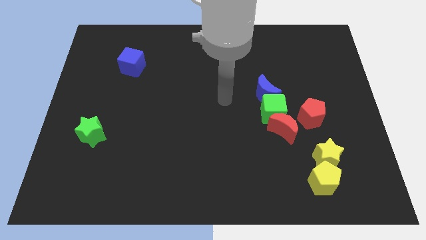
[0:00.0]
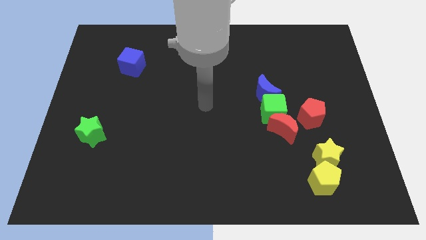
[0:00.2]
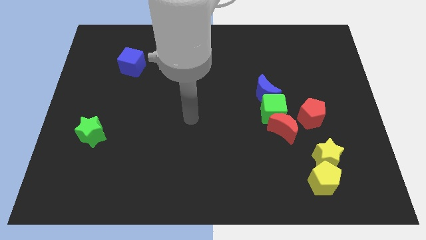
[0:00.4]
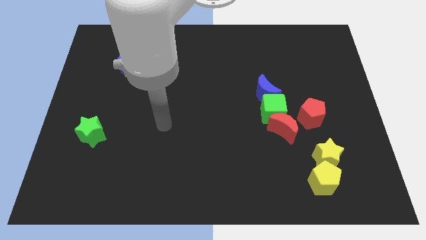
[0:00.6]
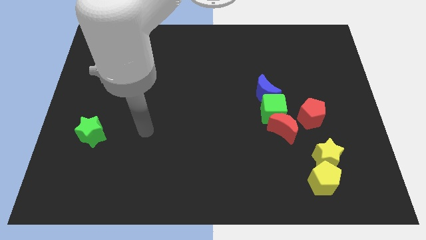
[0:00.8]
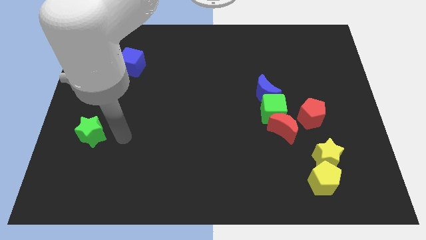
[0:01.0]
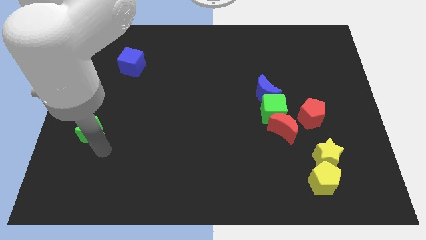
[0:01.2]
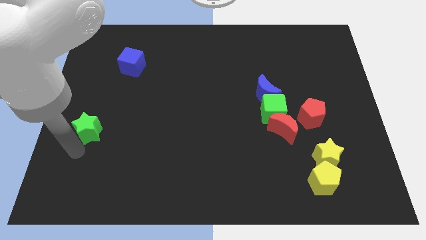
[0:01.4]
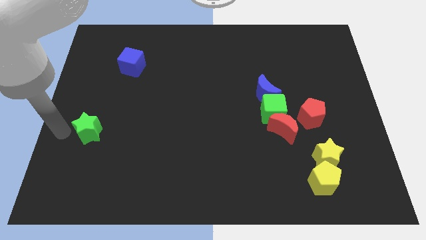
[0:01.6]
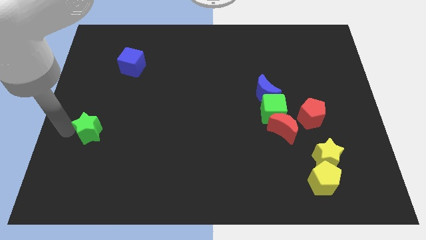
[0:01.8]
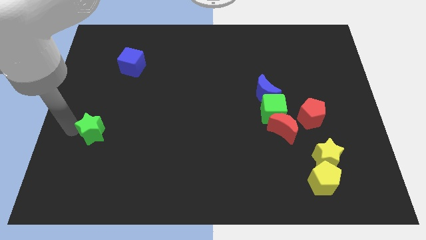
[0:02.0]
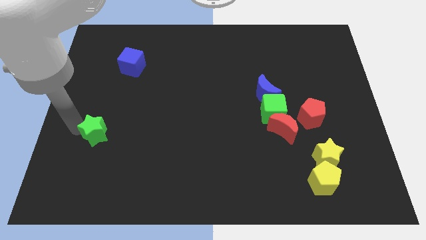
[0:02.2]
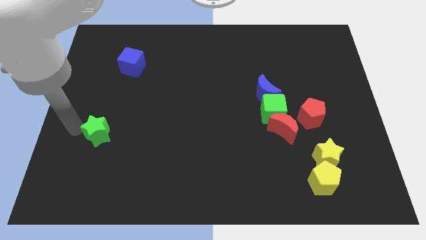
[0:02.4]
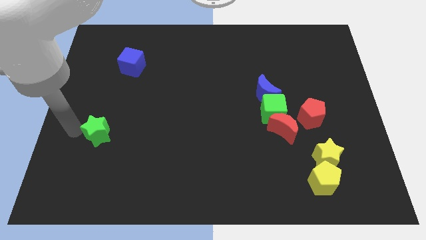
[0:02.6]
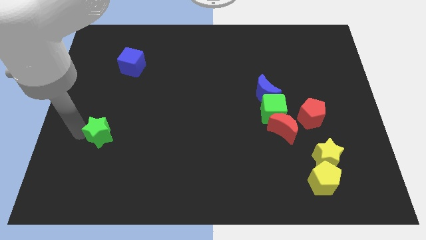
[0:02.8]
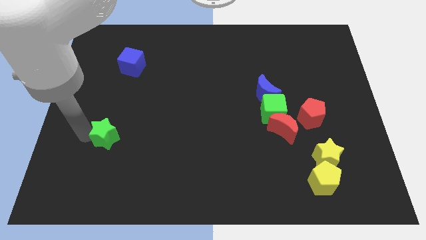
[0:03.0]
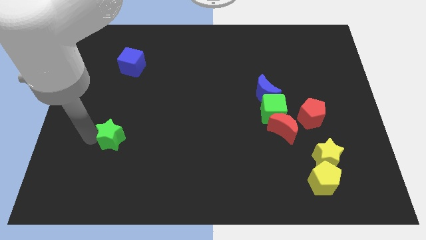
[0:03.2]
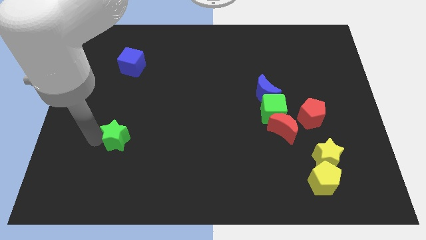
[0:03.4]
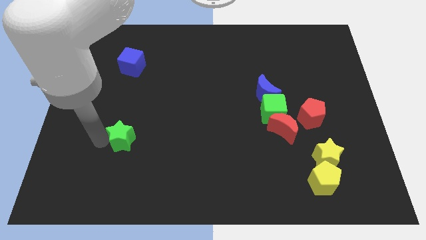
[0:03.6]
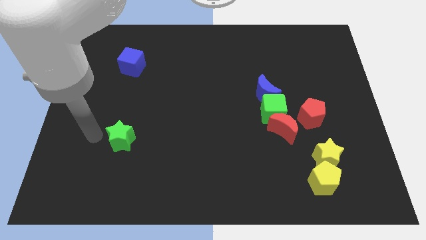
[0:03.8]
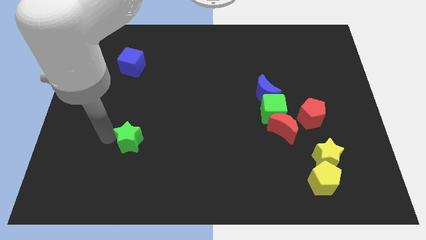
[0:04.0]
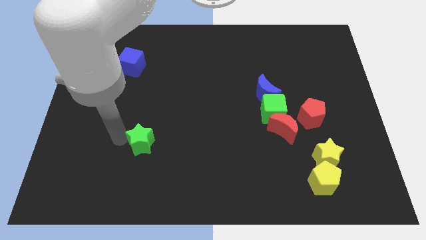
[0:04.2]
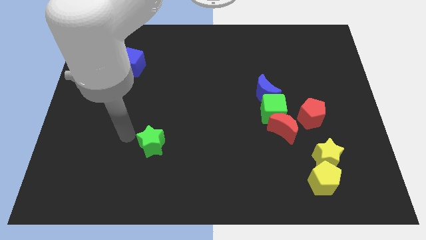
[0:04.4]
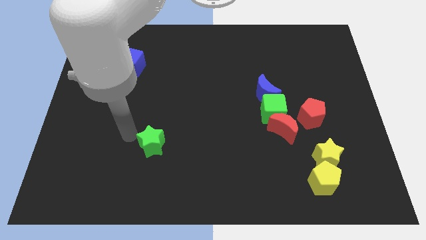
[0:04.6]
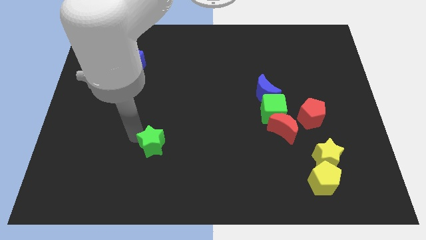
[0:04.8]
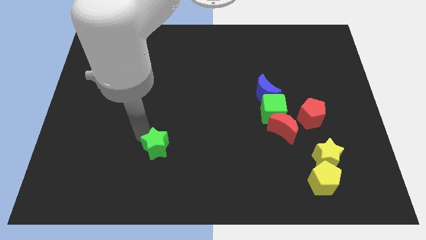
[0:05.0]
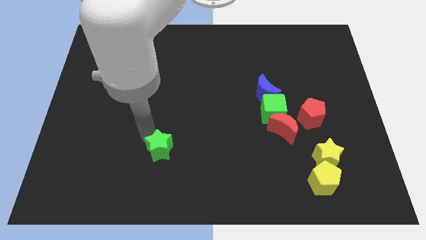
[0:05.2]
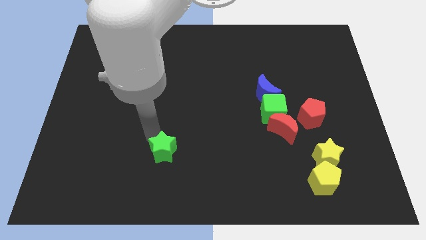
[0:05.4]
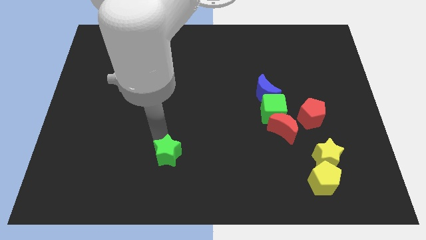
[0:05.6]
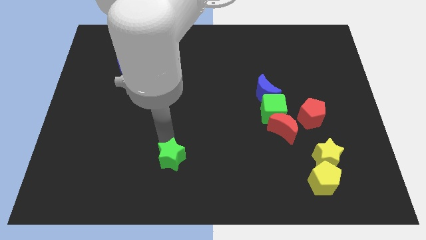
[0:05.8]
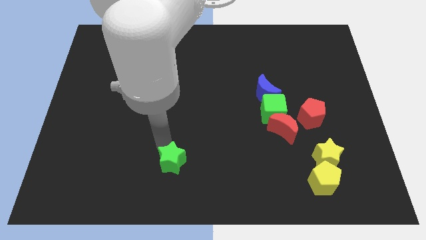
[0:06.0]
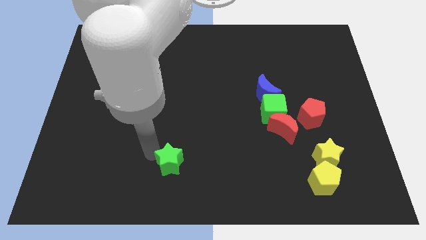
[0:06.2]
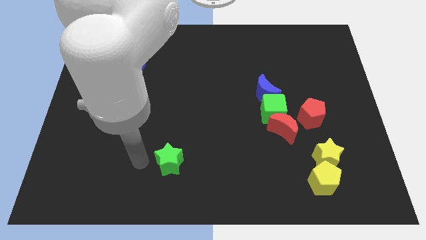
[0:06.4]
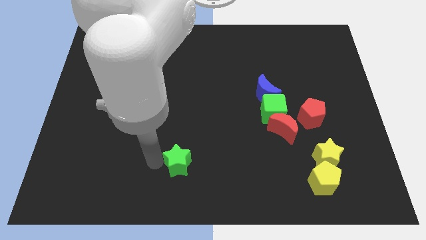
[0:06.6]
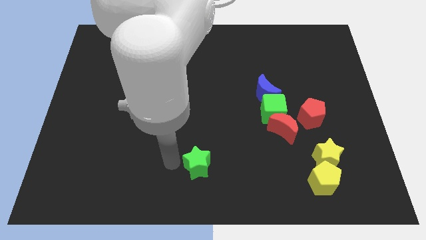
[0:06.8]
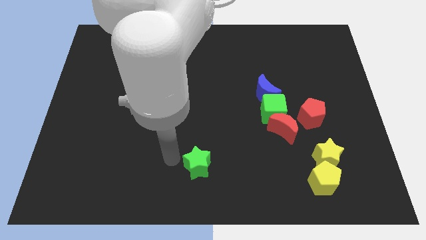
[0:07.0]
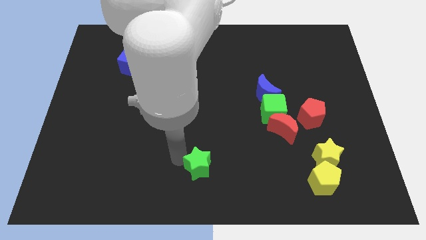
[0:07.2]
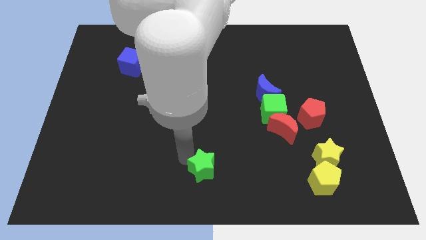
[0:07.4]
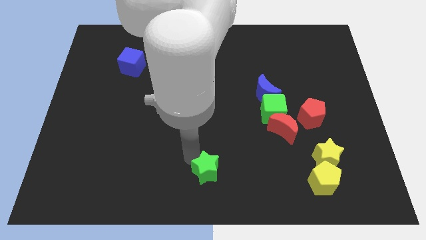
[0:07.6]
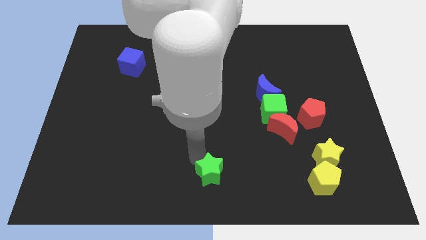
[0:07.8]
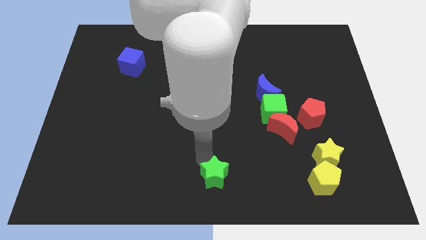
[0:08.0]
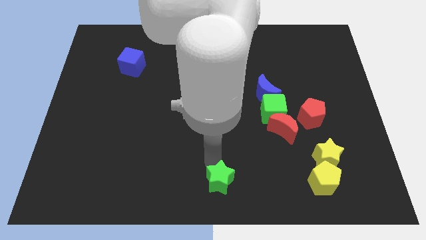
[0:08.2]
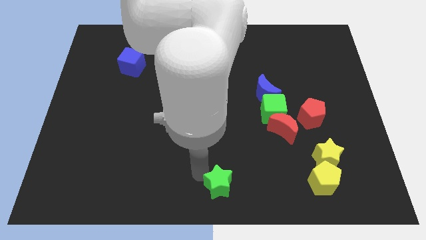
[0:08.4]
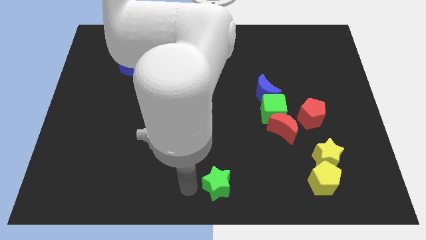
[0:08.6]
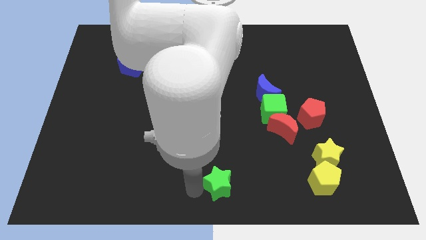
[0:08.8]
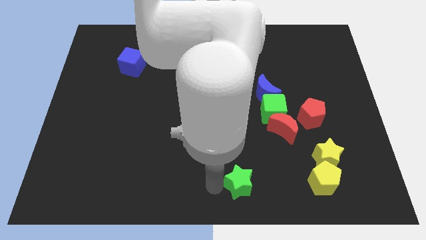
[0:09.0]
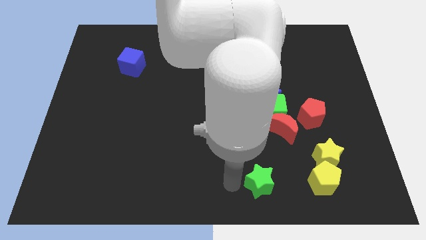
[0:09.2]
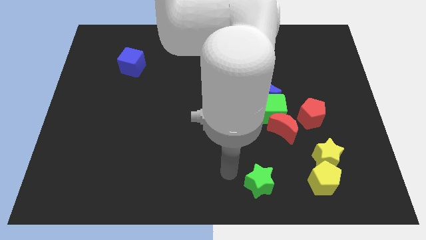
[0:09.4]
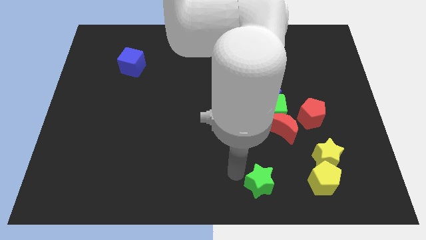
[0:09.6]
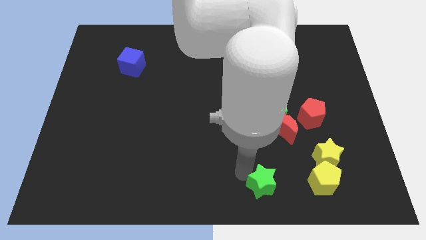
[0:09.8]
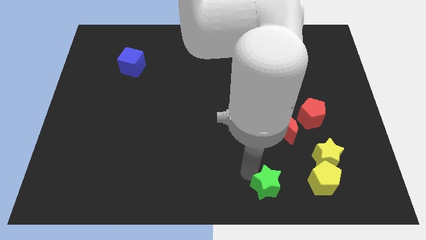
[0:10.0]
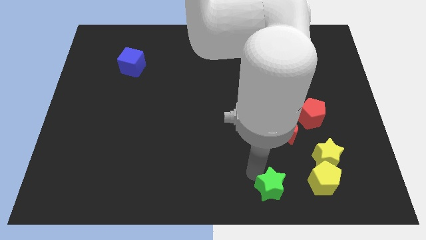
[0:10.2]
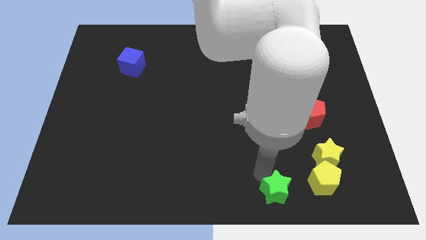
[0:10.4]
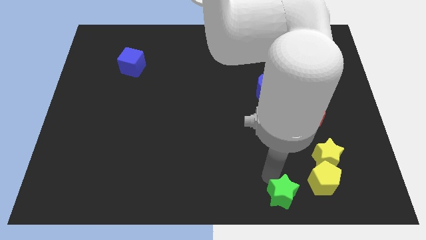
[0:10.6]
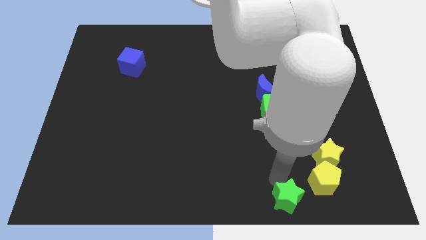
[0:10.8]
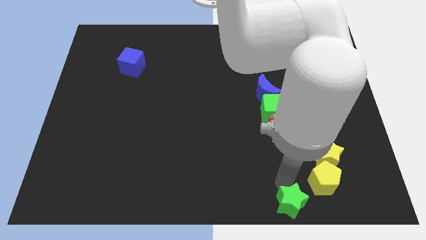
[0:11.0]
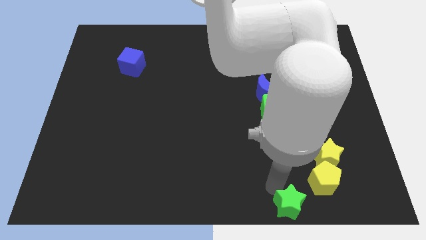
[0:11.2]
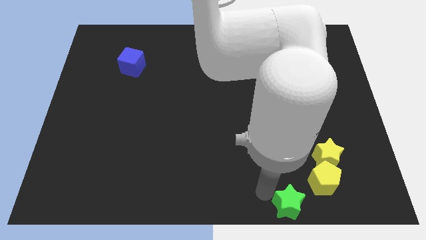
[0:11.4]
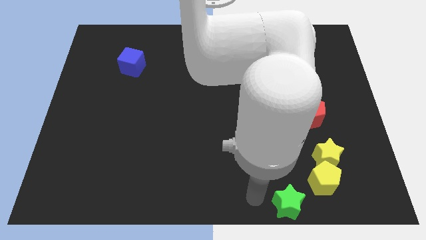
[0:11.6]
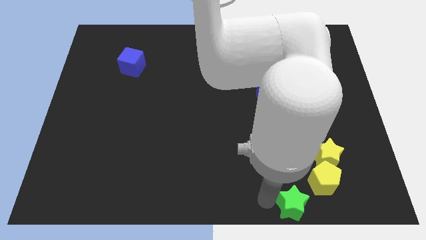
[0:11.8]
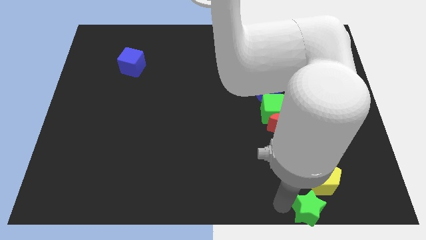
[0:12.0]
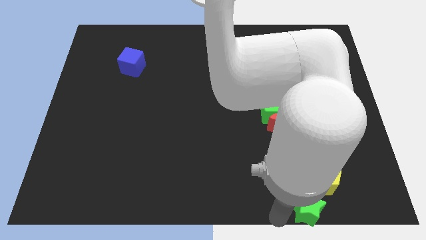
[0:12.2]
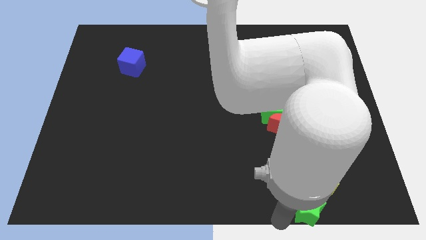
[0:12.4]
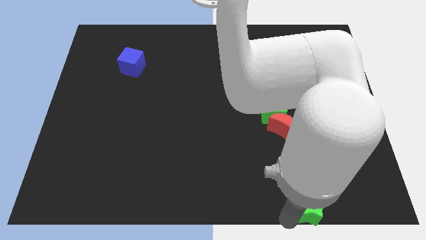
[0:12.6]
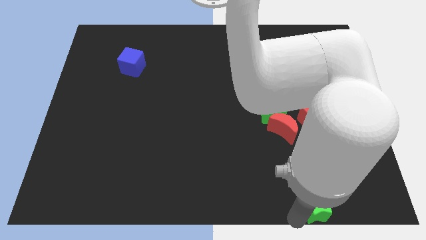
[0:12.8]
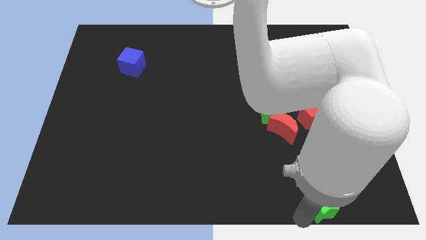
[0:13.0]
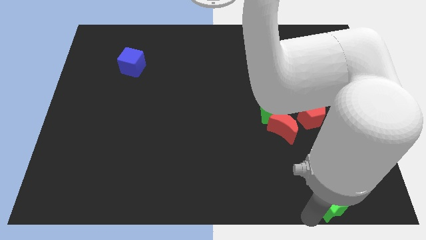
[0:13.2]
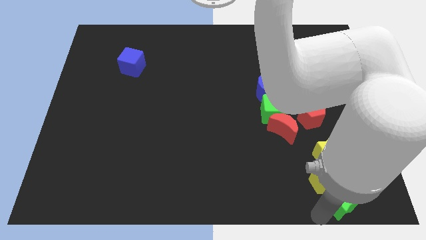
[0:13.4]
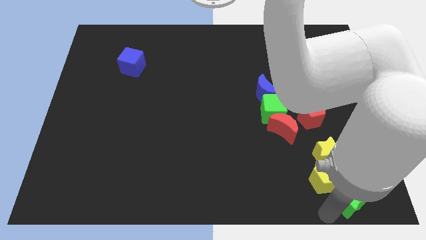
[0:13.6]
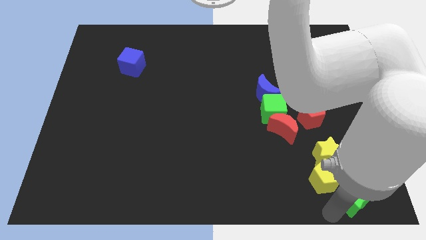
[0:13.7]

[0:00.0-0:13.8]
move the green star diagonally down and to the right of the yellow star

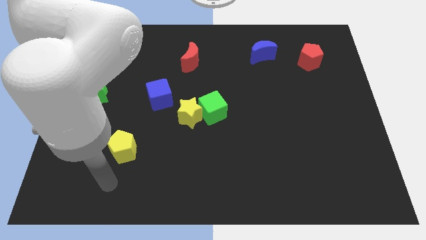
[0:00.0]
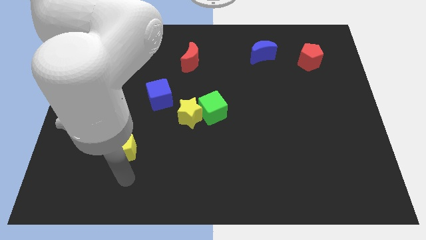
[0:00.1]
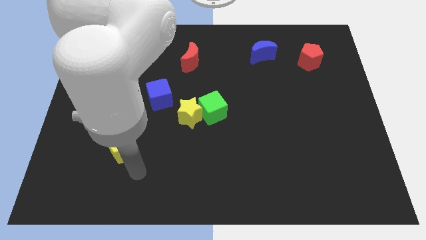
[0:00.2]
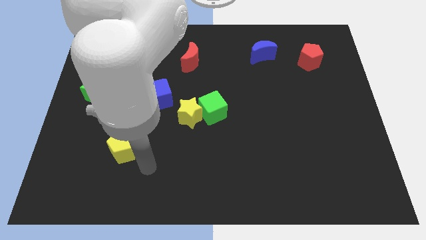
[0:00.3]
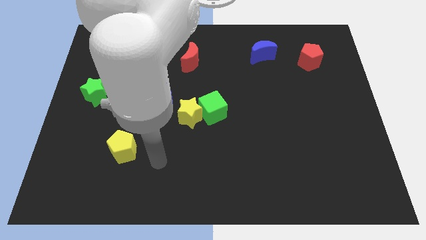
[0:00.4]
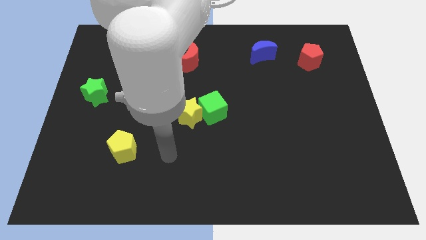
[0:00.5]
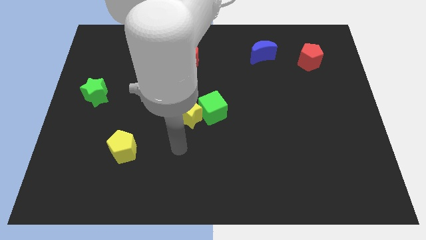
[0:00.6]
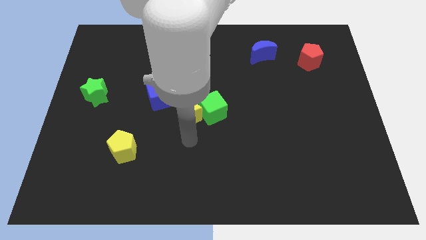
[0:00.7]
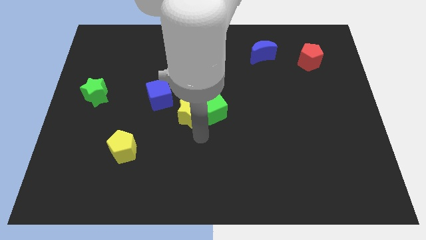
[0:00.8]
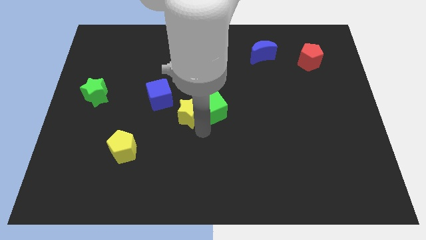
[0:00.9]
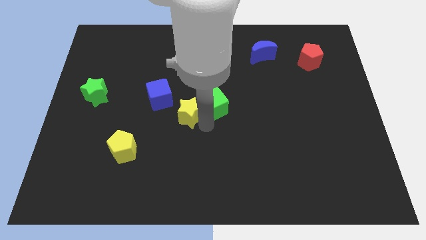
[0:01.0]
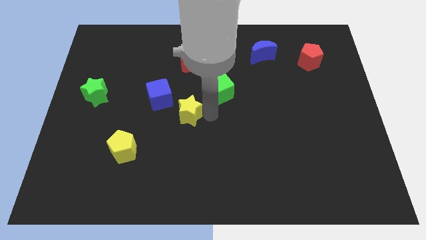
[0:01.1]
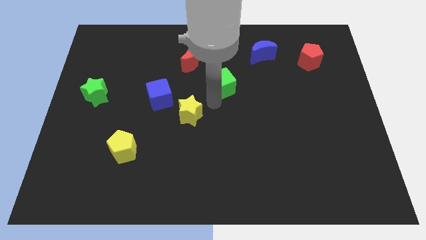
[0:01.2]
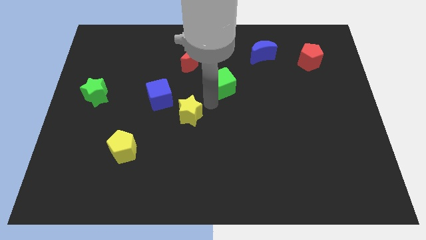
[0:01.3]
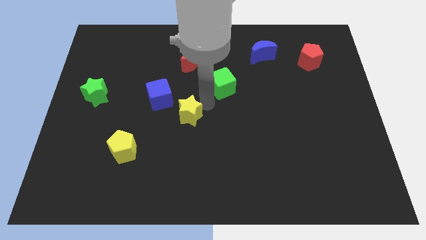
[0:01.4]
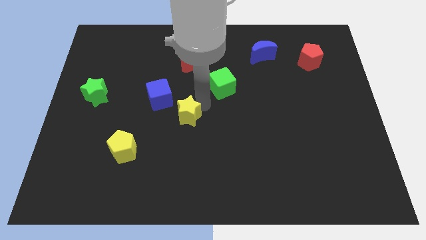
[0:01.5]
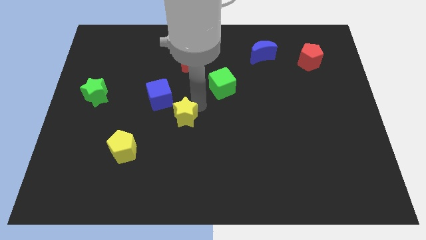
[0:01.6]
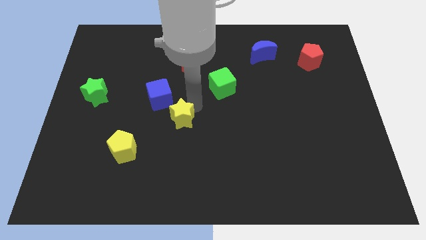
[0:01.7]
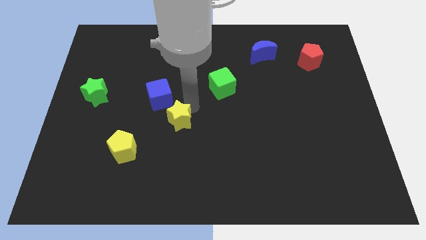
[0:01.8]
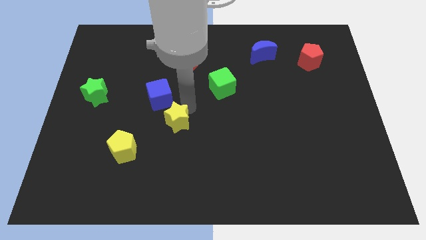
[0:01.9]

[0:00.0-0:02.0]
move the yellow star to the bottom of the blue cube
